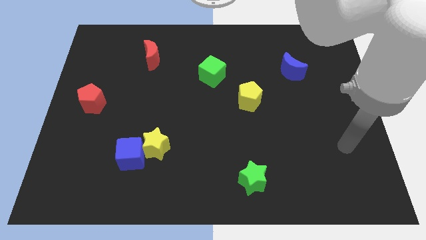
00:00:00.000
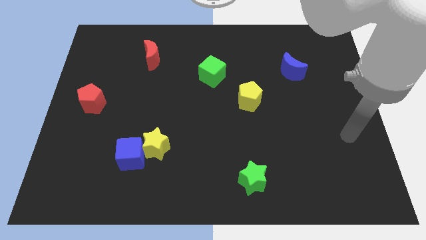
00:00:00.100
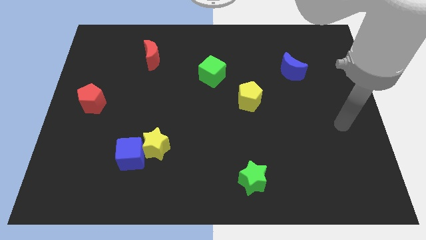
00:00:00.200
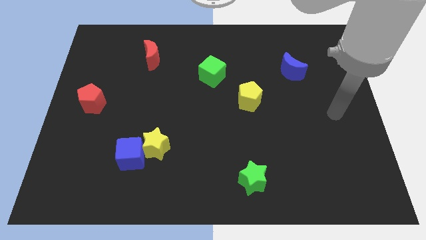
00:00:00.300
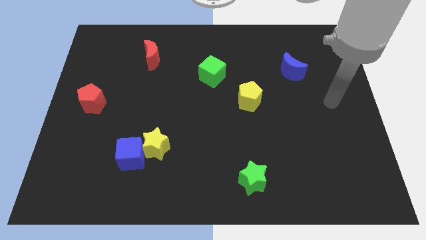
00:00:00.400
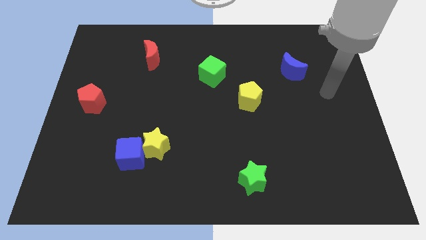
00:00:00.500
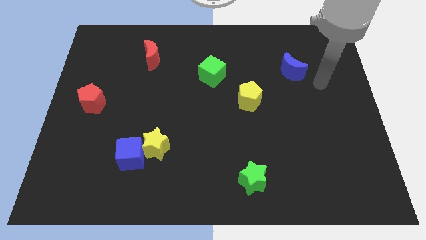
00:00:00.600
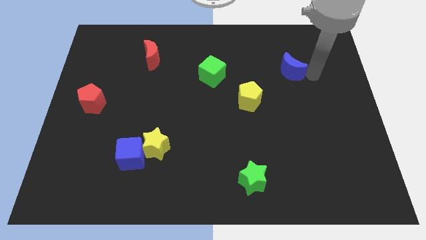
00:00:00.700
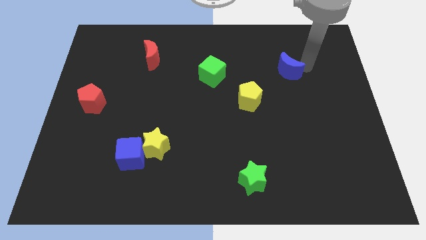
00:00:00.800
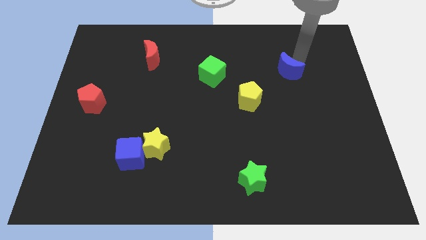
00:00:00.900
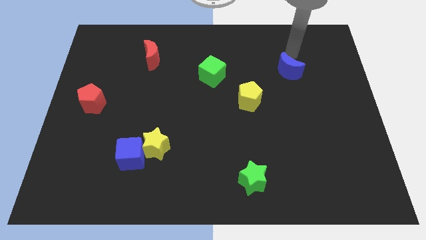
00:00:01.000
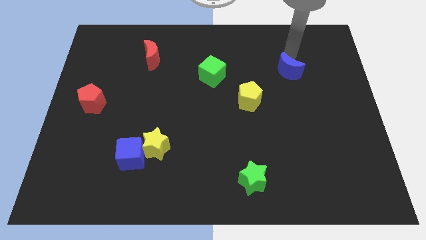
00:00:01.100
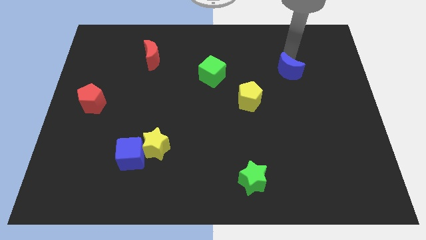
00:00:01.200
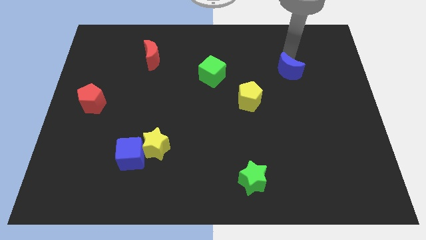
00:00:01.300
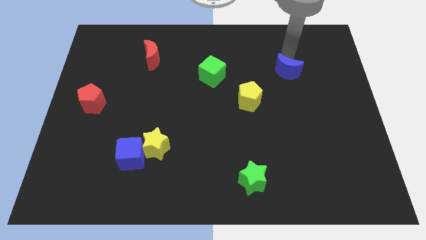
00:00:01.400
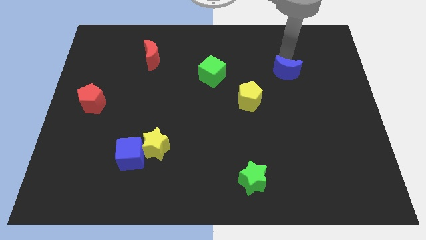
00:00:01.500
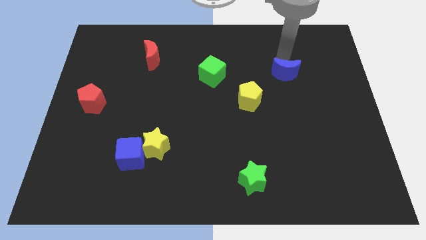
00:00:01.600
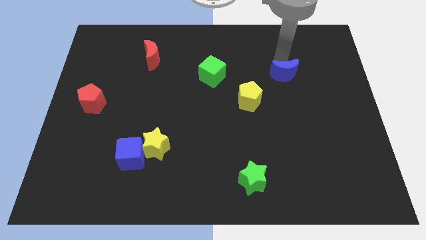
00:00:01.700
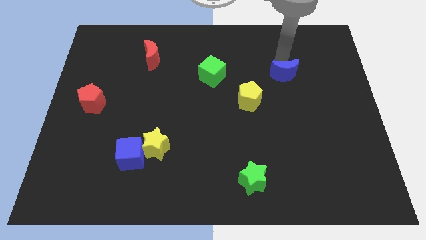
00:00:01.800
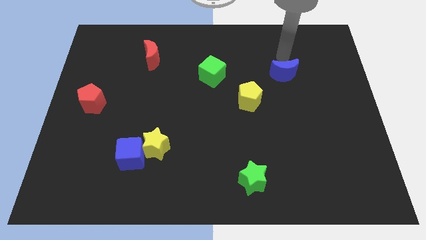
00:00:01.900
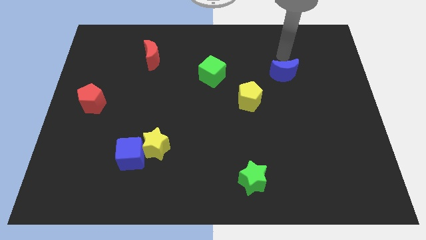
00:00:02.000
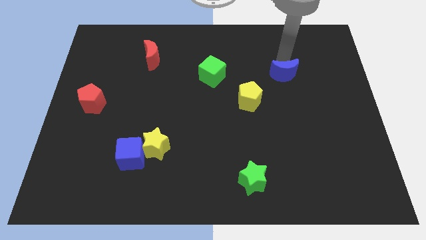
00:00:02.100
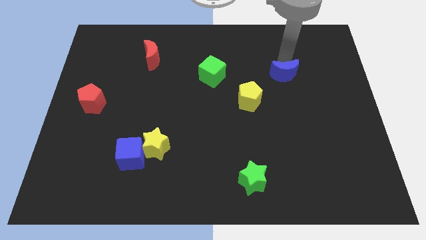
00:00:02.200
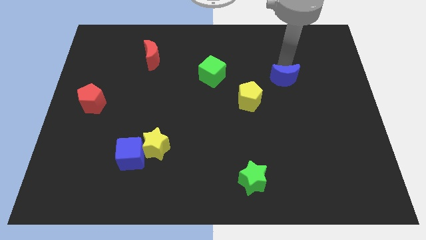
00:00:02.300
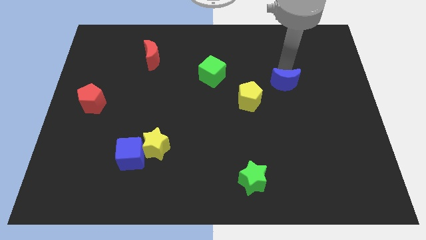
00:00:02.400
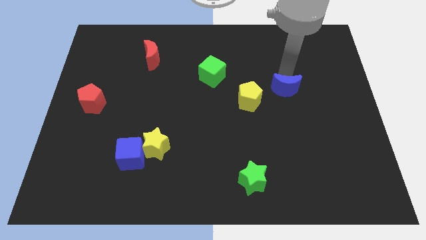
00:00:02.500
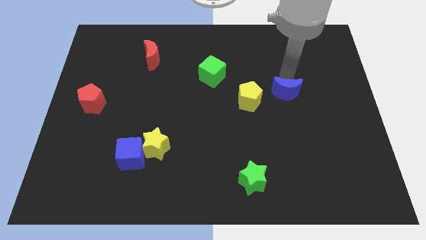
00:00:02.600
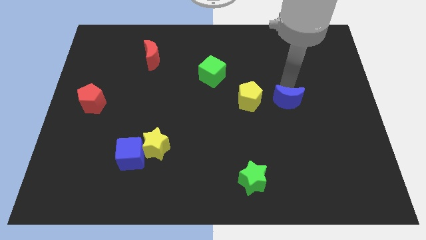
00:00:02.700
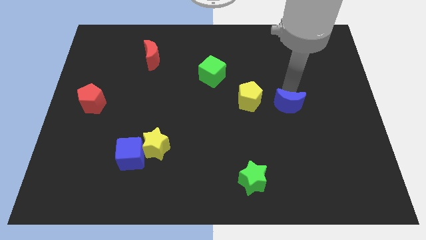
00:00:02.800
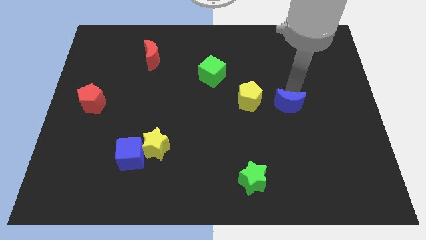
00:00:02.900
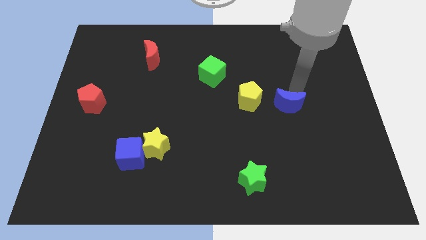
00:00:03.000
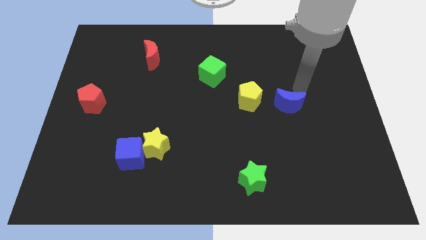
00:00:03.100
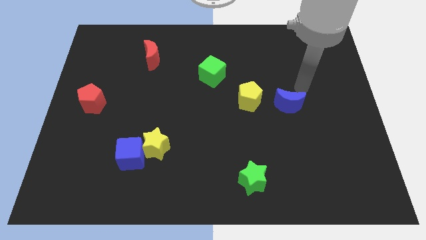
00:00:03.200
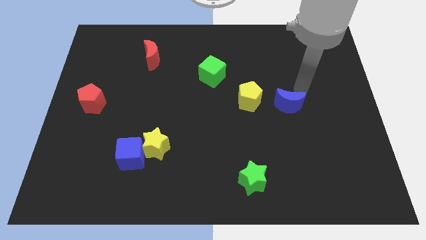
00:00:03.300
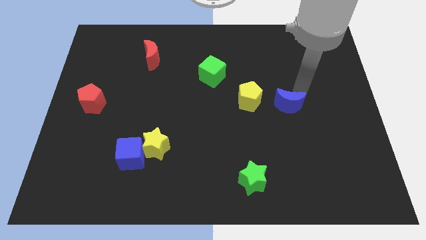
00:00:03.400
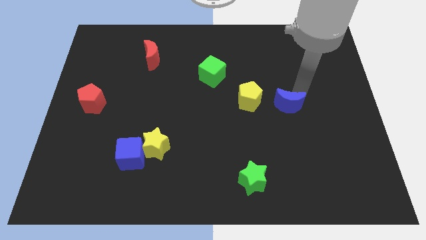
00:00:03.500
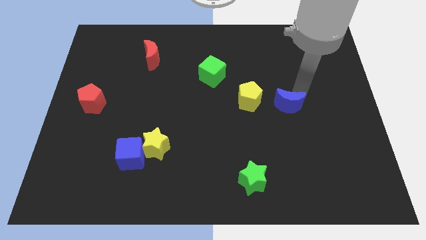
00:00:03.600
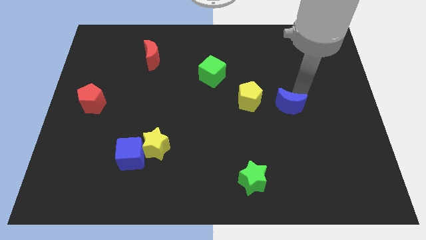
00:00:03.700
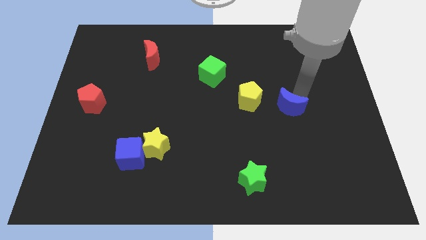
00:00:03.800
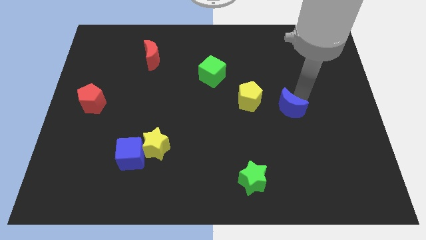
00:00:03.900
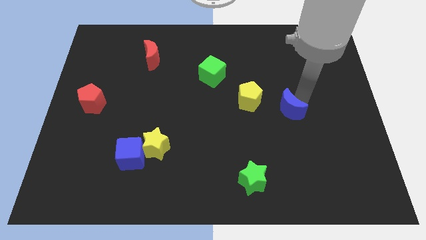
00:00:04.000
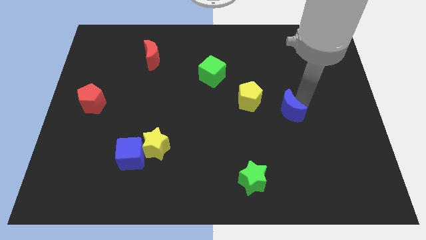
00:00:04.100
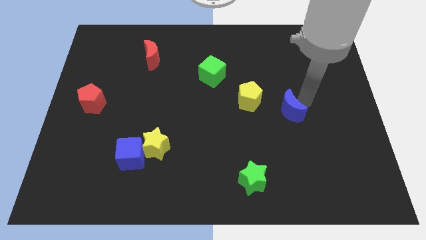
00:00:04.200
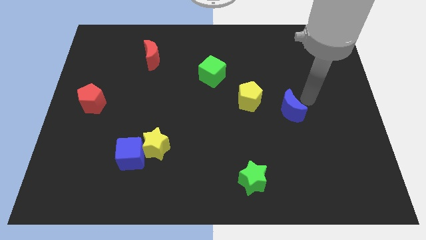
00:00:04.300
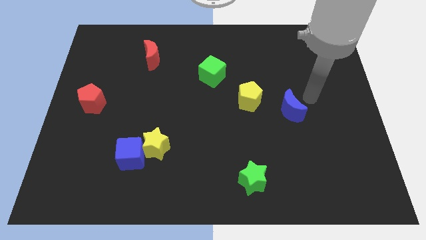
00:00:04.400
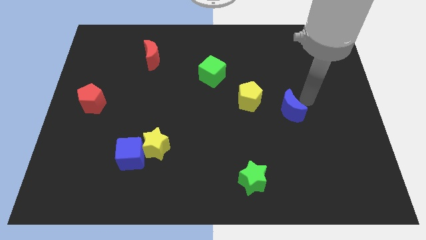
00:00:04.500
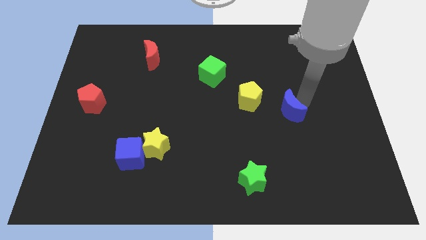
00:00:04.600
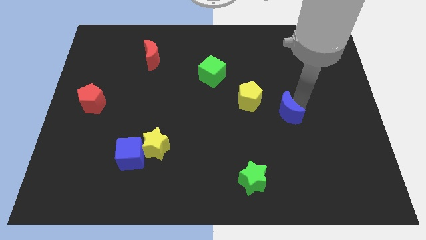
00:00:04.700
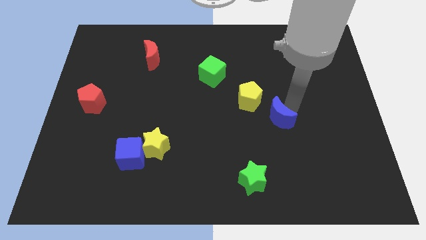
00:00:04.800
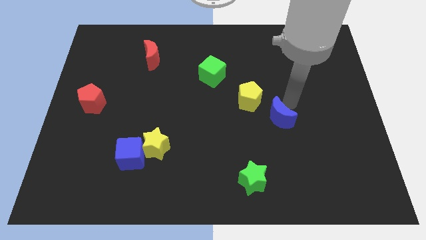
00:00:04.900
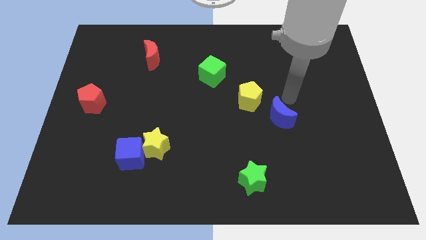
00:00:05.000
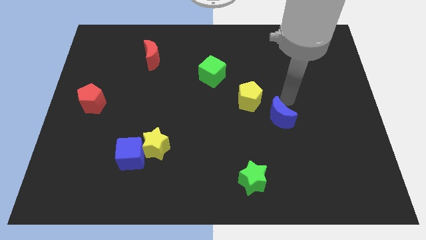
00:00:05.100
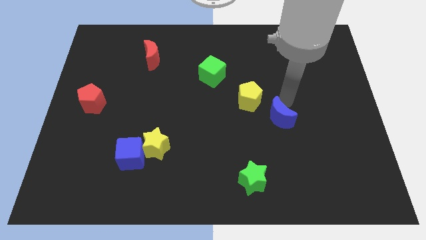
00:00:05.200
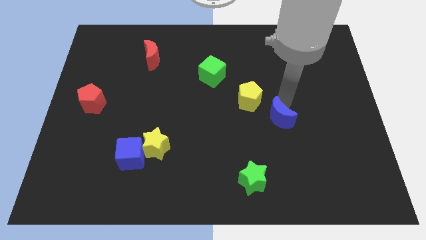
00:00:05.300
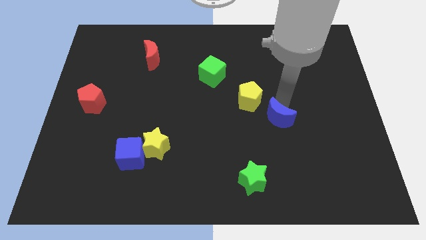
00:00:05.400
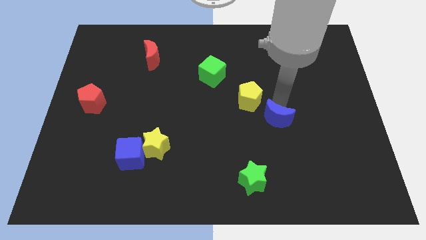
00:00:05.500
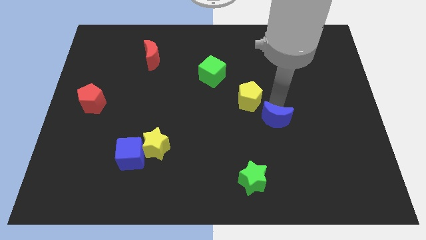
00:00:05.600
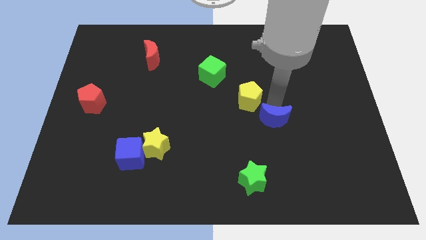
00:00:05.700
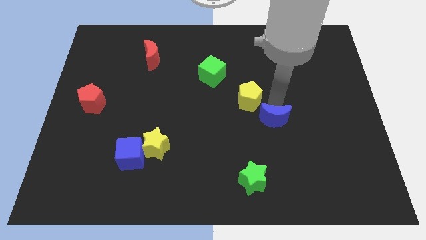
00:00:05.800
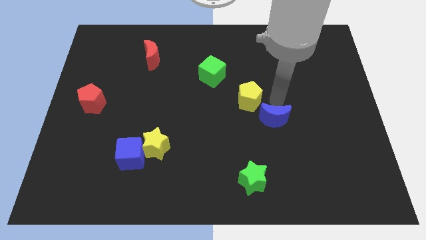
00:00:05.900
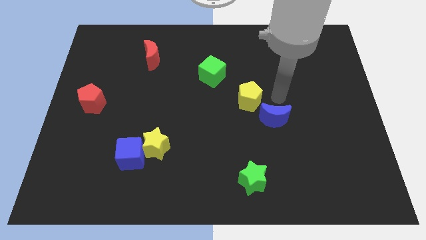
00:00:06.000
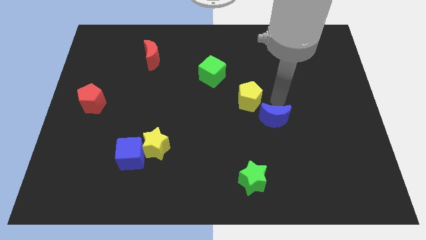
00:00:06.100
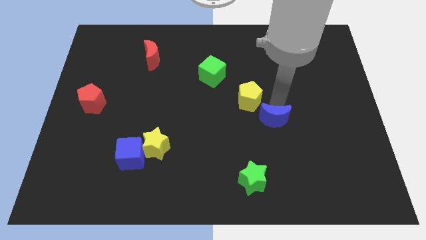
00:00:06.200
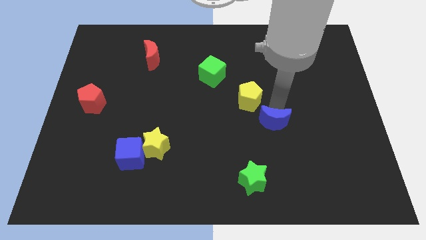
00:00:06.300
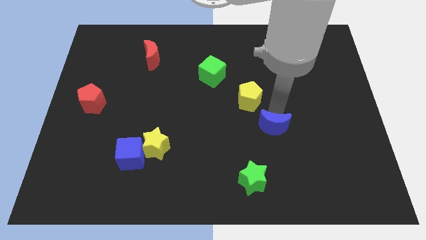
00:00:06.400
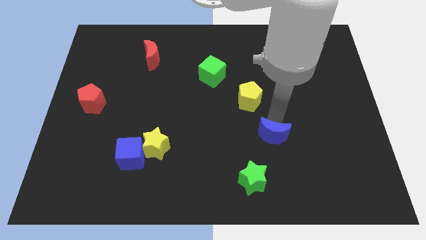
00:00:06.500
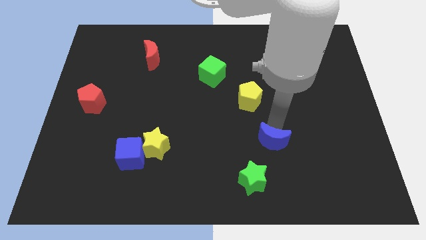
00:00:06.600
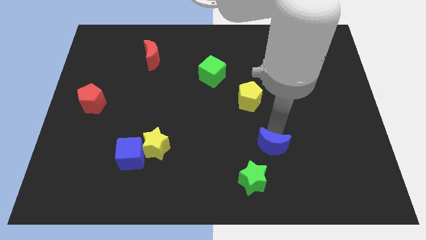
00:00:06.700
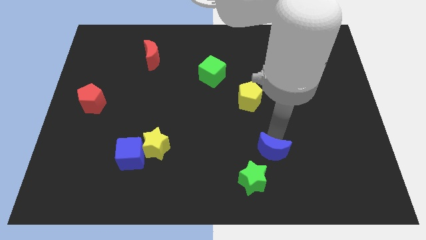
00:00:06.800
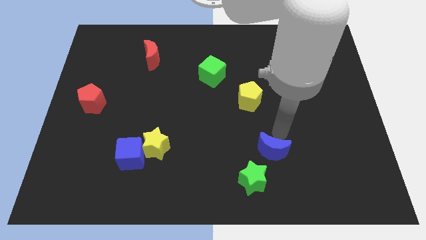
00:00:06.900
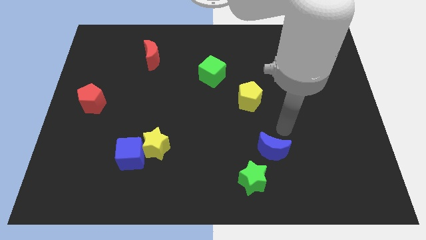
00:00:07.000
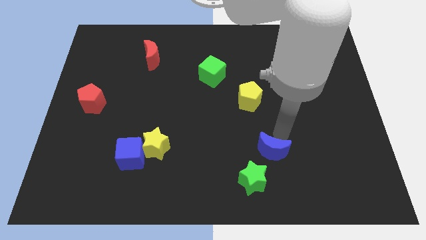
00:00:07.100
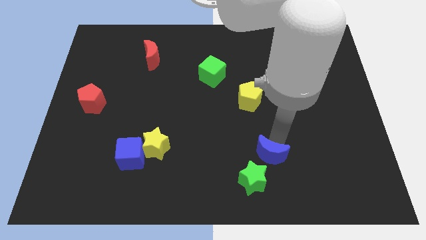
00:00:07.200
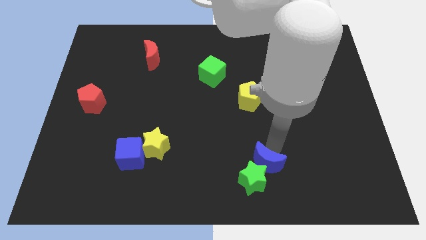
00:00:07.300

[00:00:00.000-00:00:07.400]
put the blue moon next to the green star

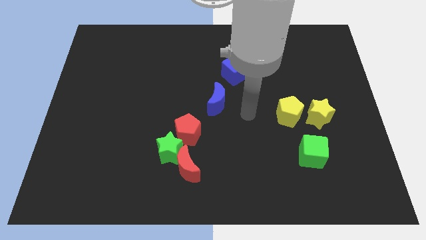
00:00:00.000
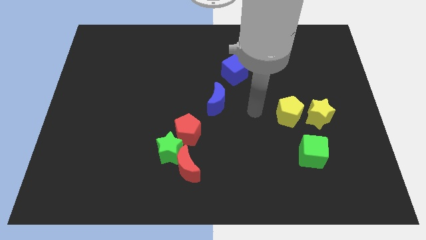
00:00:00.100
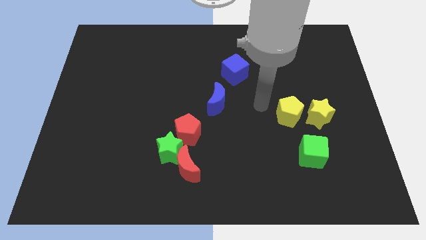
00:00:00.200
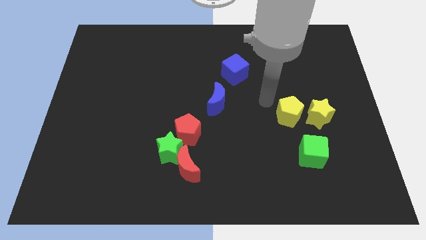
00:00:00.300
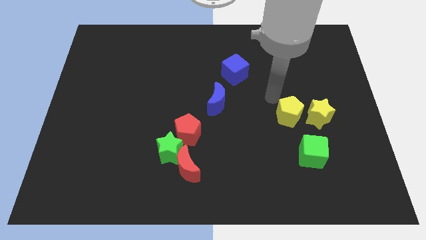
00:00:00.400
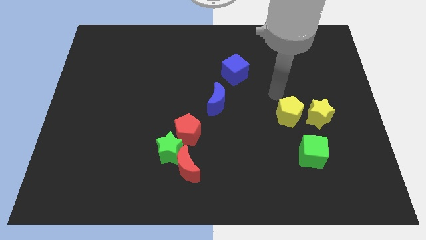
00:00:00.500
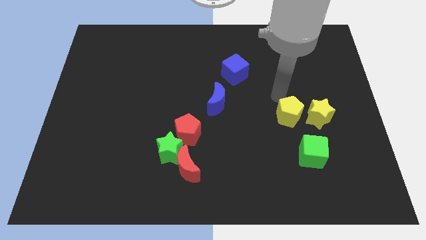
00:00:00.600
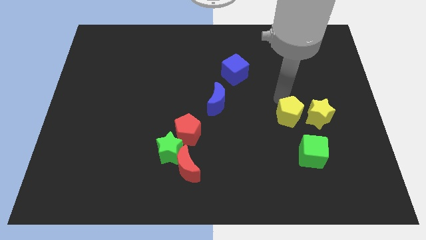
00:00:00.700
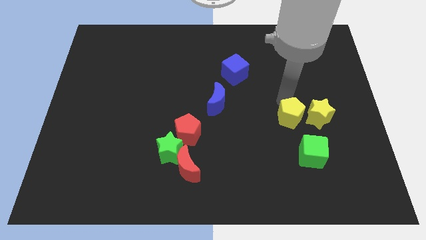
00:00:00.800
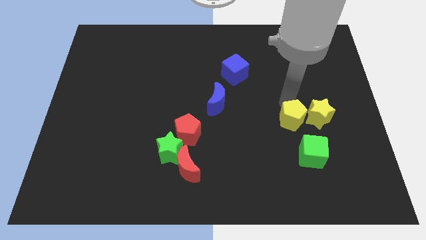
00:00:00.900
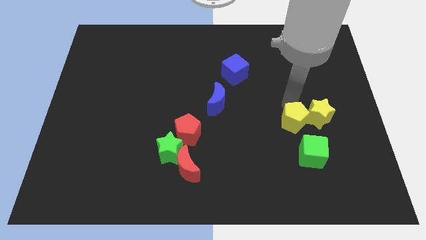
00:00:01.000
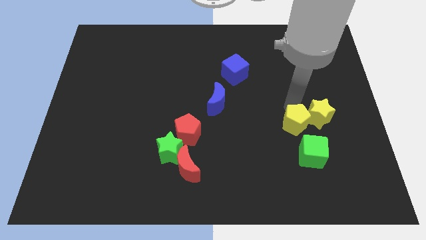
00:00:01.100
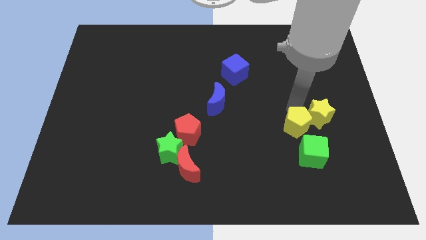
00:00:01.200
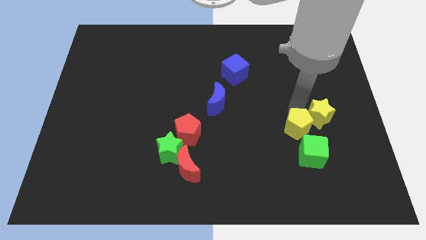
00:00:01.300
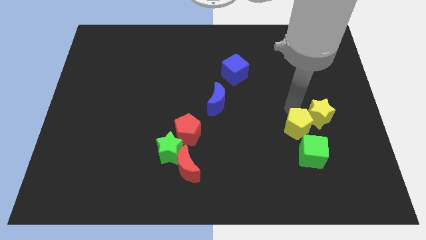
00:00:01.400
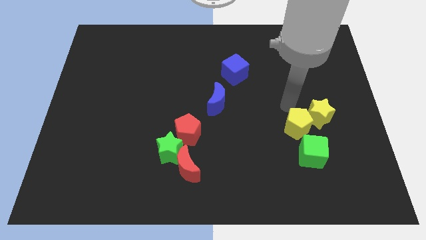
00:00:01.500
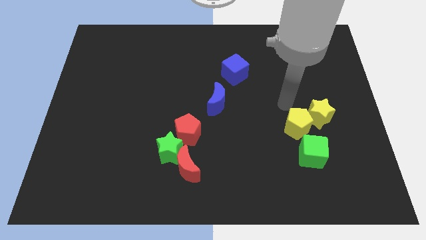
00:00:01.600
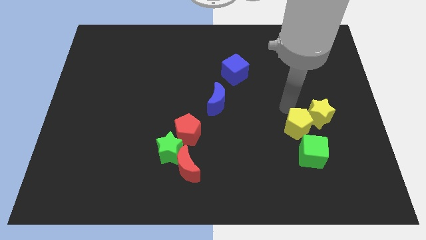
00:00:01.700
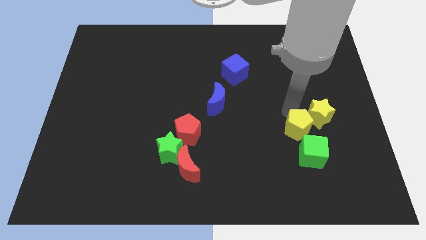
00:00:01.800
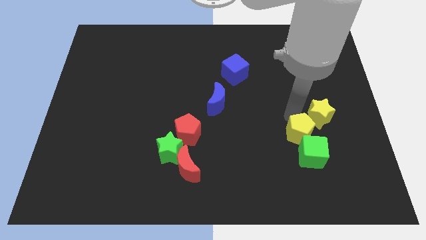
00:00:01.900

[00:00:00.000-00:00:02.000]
move the yellow pentagon towards the green cube
